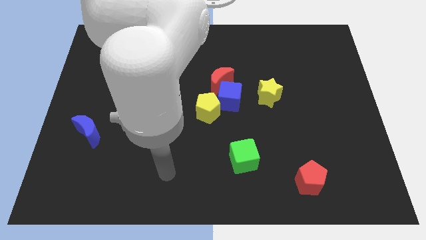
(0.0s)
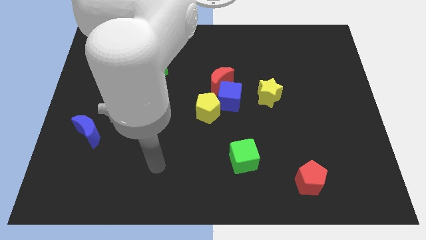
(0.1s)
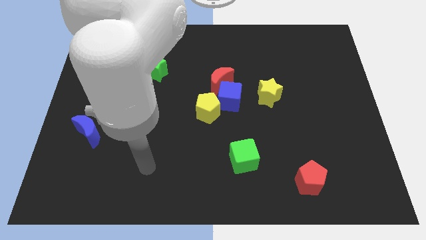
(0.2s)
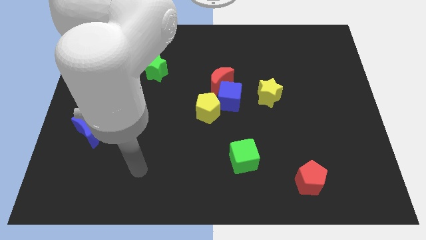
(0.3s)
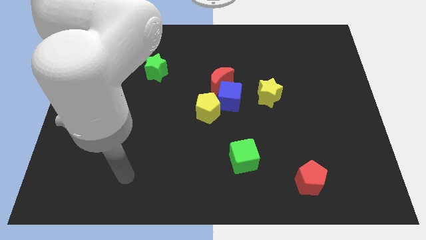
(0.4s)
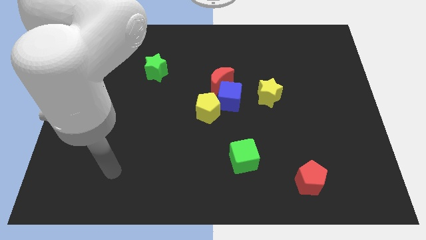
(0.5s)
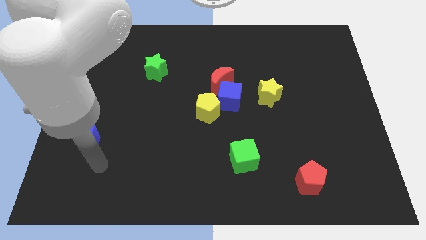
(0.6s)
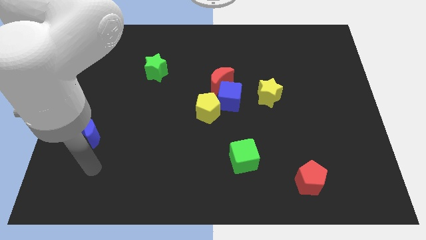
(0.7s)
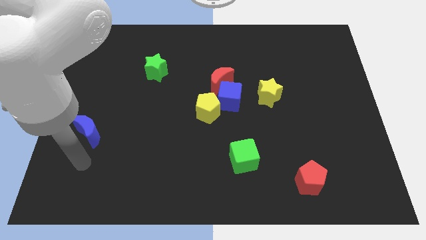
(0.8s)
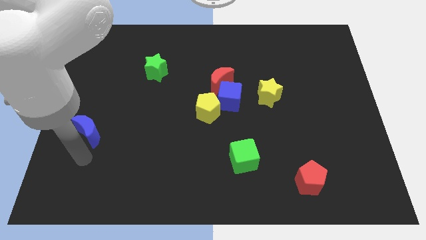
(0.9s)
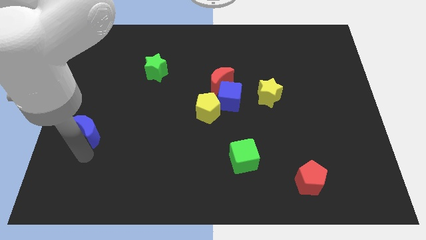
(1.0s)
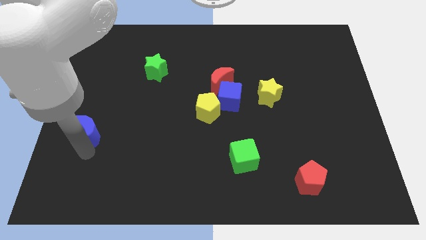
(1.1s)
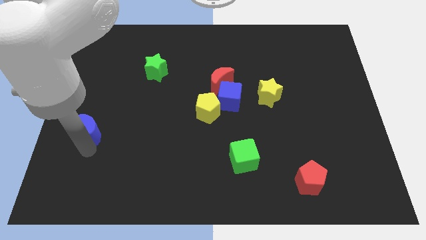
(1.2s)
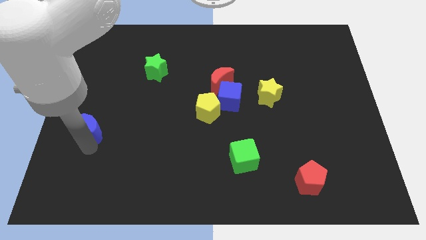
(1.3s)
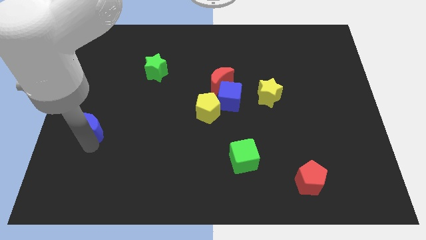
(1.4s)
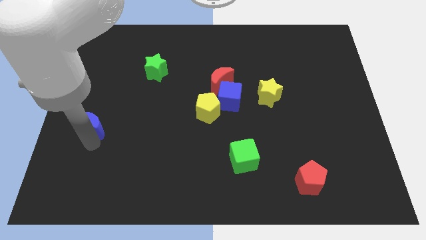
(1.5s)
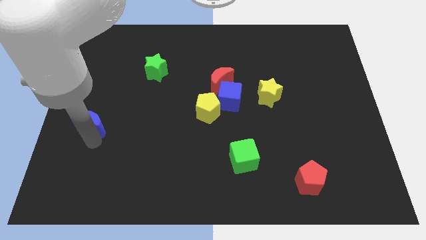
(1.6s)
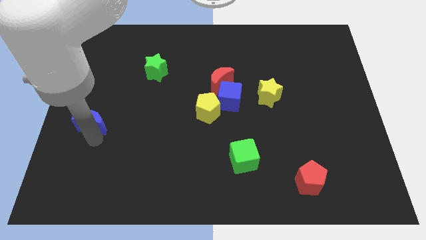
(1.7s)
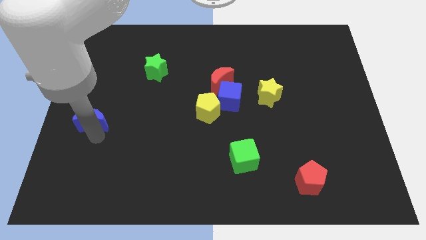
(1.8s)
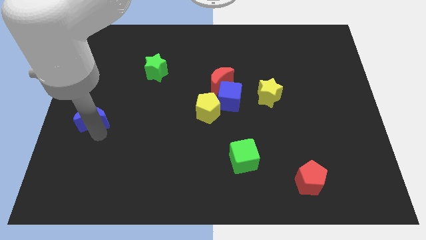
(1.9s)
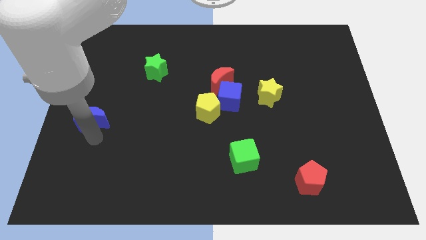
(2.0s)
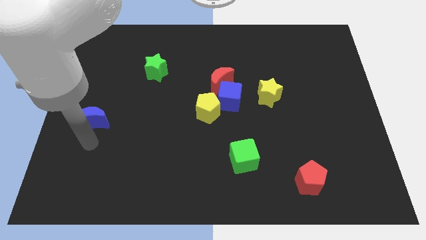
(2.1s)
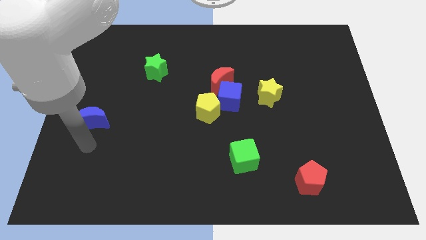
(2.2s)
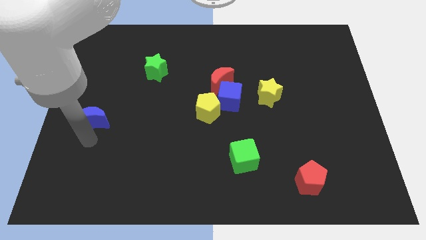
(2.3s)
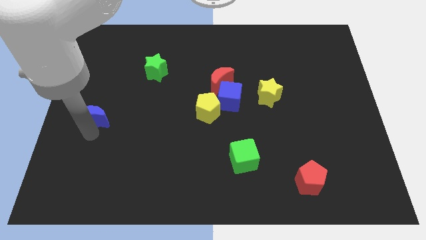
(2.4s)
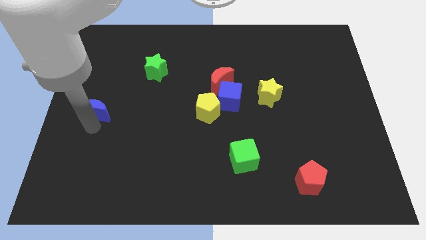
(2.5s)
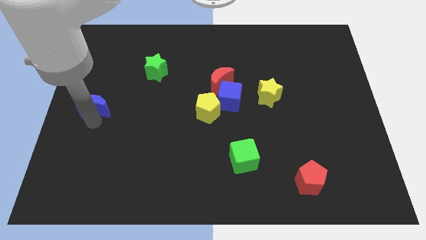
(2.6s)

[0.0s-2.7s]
move the blue moon up a little bit

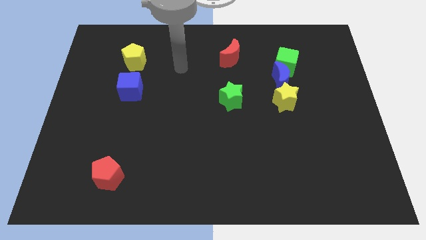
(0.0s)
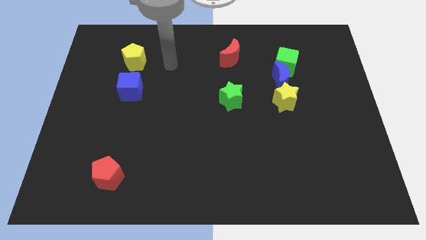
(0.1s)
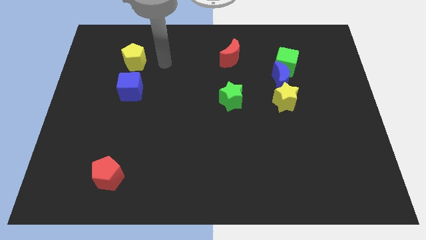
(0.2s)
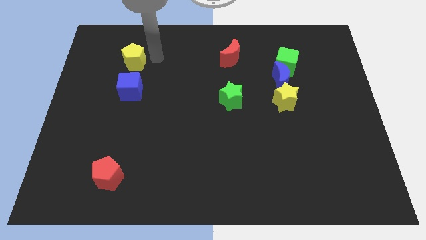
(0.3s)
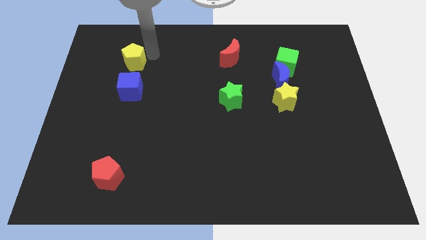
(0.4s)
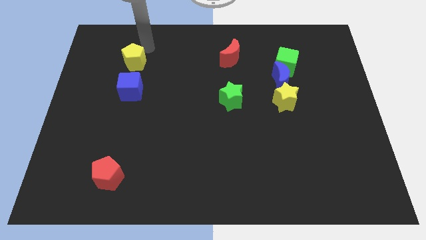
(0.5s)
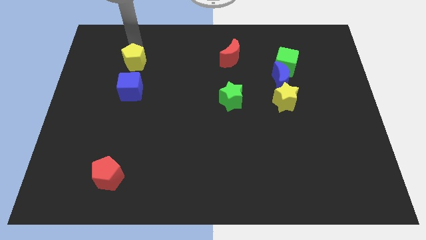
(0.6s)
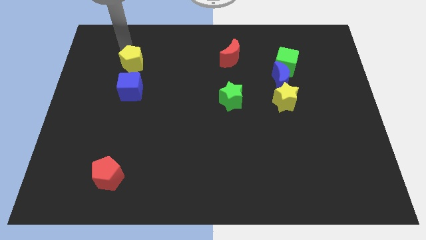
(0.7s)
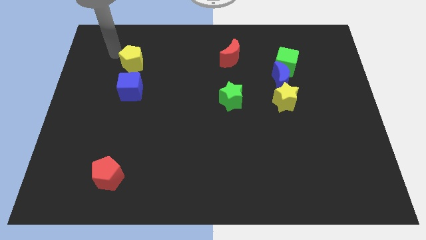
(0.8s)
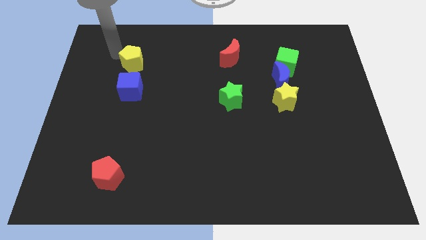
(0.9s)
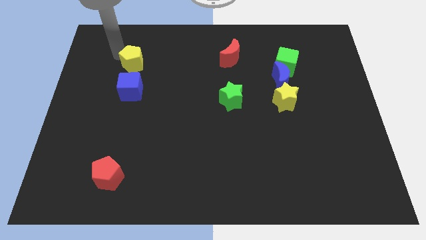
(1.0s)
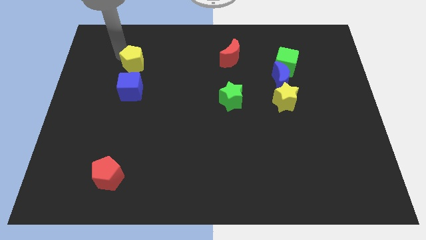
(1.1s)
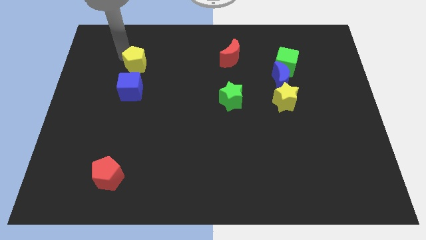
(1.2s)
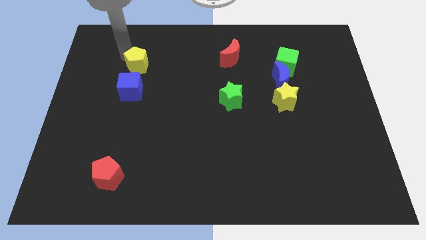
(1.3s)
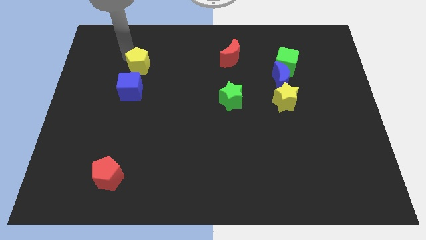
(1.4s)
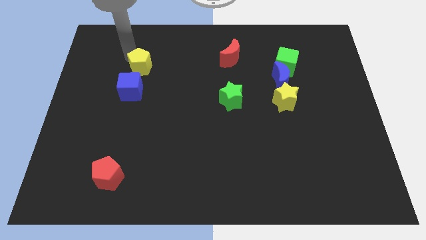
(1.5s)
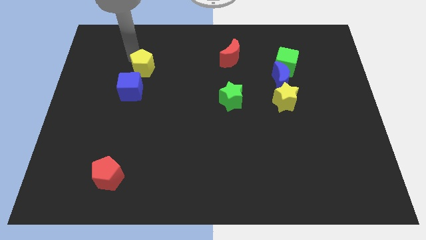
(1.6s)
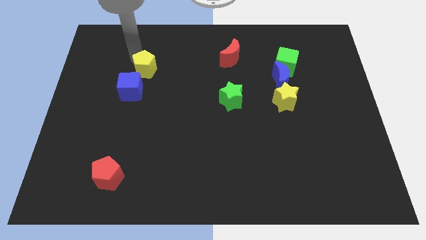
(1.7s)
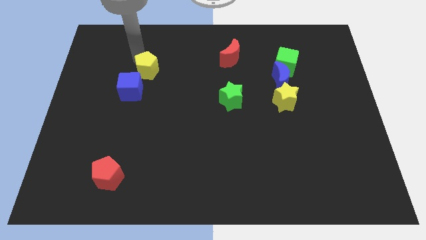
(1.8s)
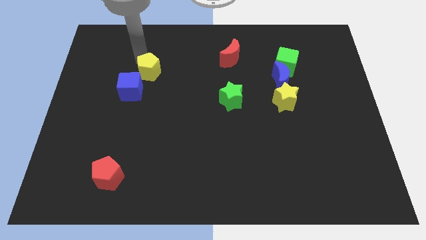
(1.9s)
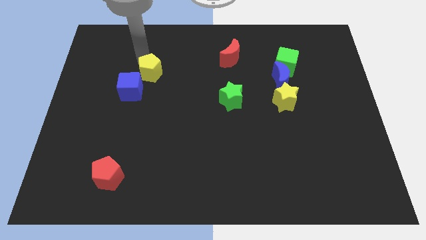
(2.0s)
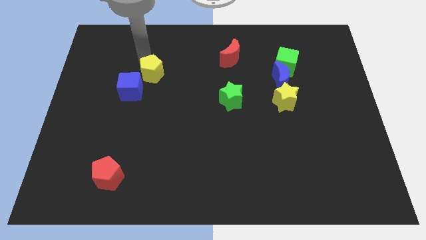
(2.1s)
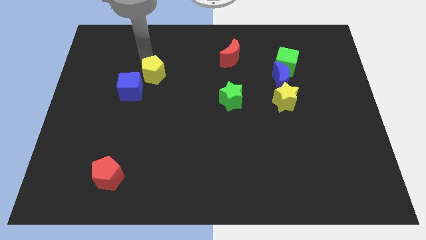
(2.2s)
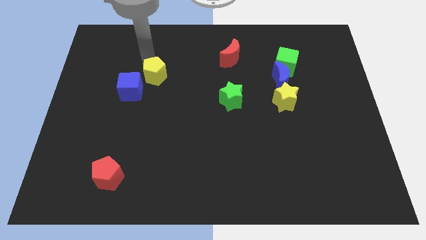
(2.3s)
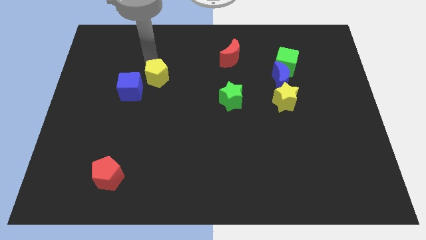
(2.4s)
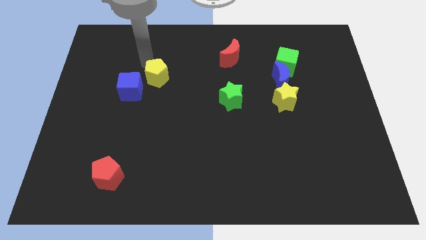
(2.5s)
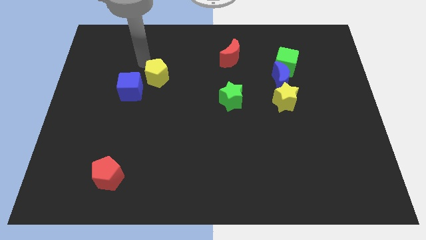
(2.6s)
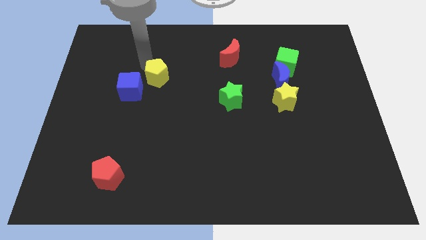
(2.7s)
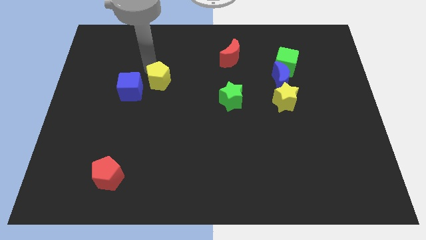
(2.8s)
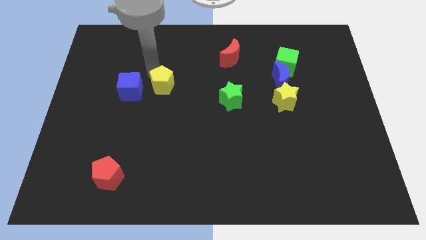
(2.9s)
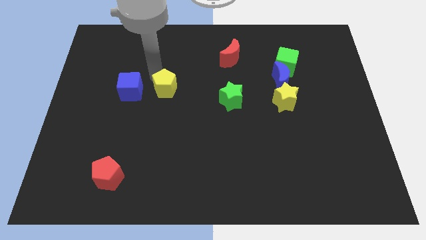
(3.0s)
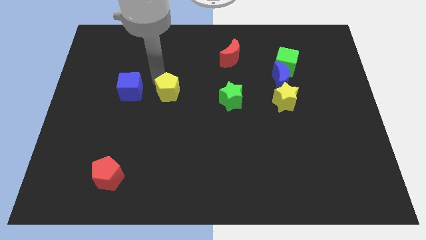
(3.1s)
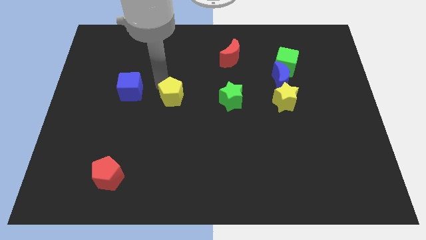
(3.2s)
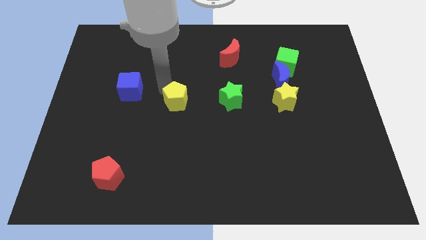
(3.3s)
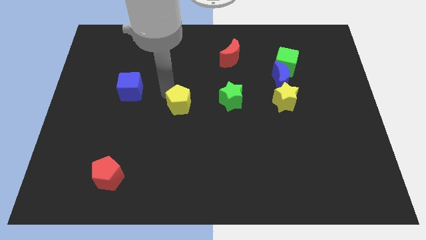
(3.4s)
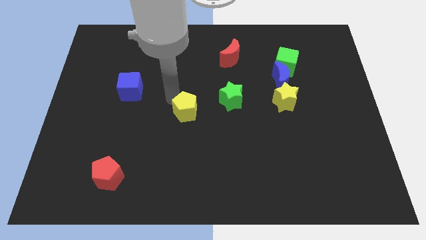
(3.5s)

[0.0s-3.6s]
move the yellow pentagon downwards and then to the right

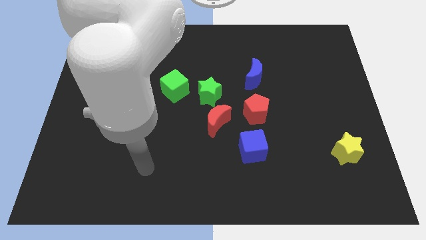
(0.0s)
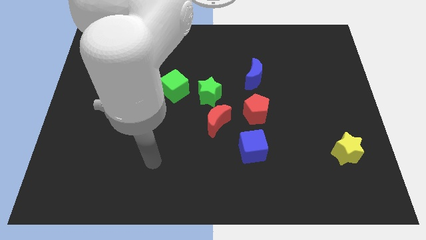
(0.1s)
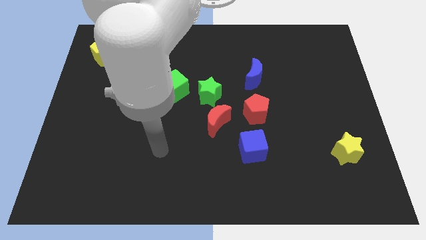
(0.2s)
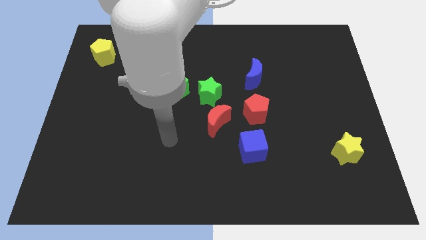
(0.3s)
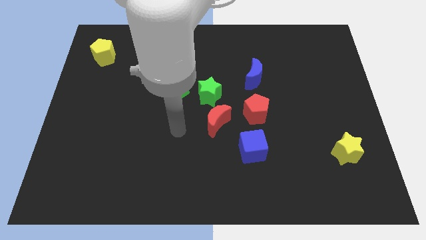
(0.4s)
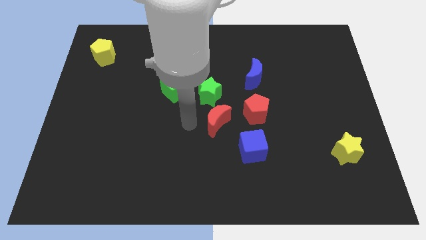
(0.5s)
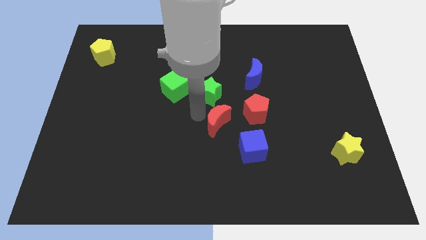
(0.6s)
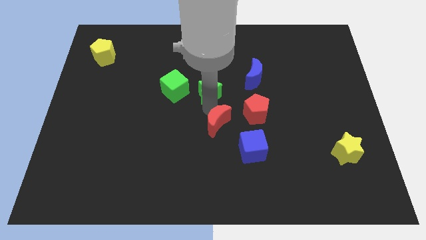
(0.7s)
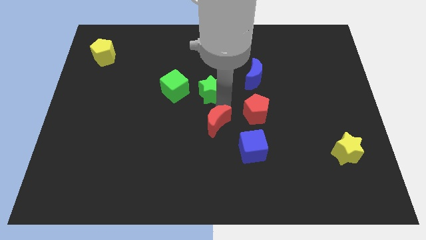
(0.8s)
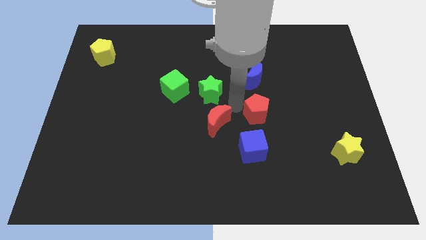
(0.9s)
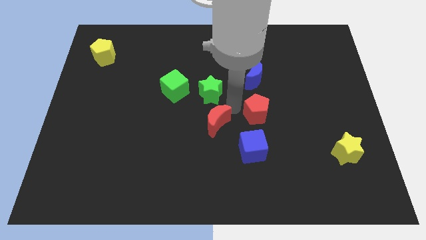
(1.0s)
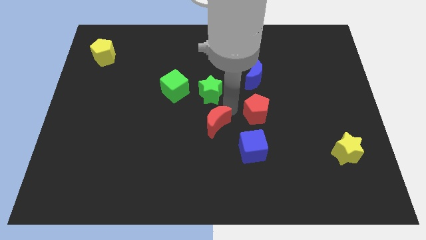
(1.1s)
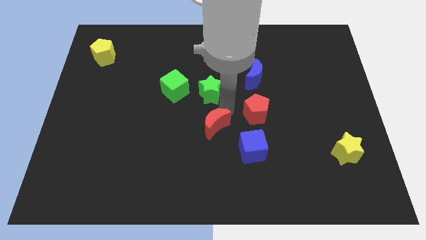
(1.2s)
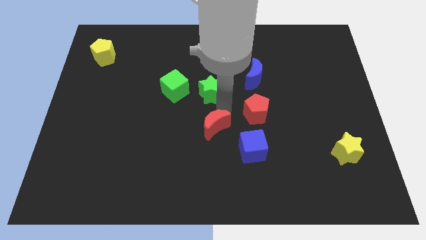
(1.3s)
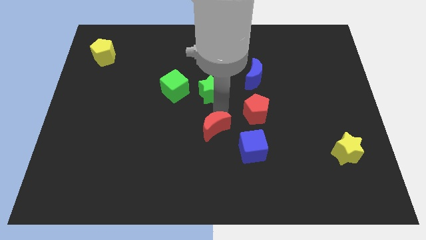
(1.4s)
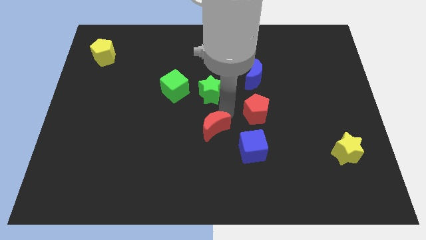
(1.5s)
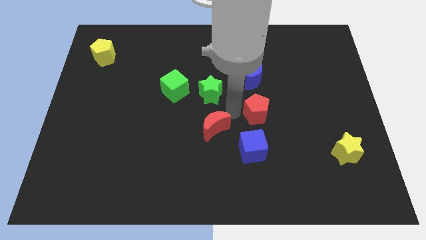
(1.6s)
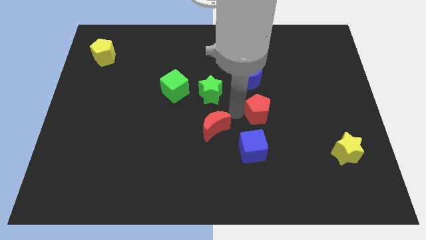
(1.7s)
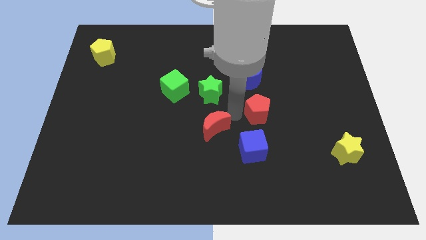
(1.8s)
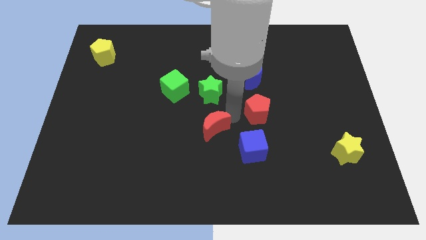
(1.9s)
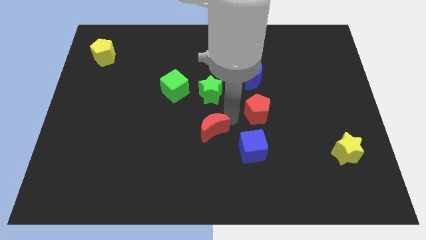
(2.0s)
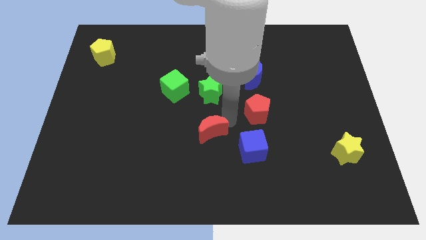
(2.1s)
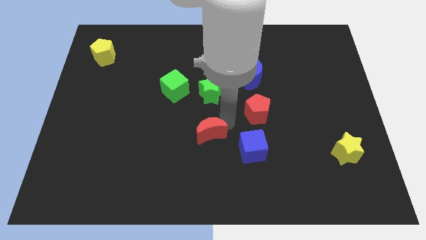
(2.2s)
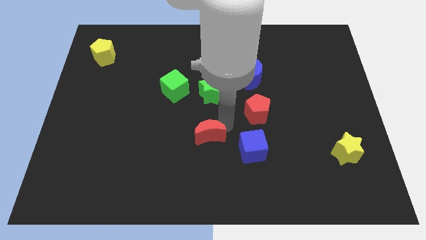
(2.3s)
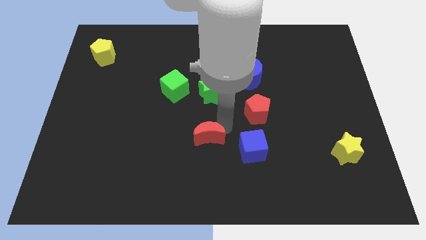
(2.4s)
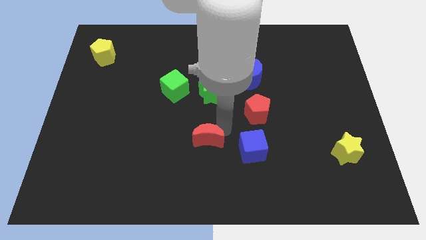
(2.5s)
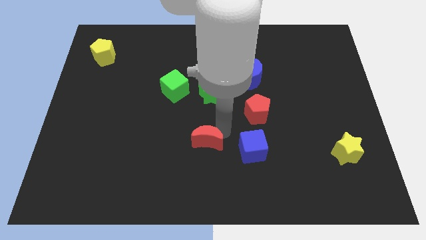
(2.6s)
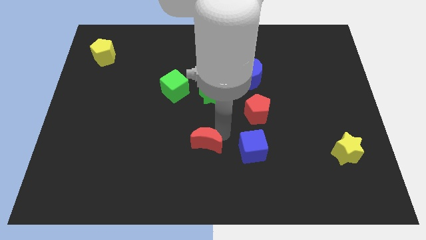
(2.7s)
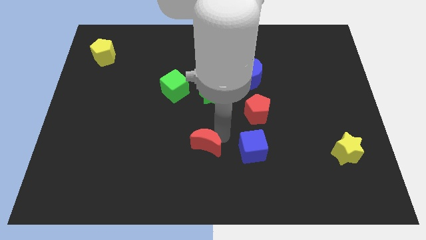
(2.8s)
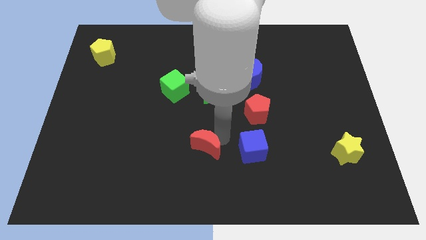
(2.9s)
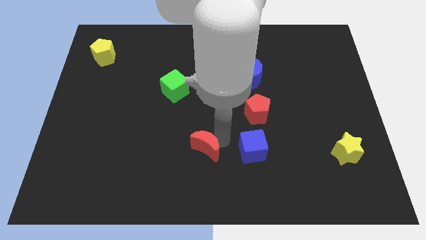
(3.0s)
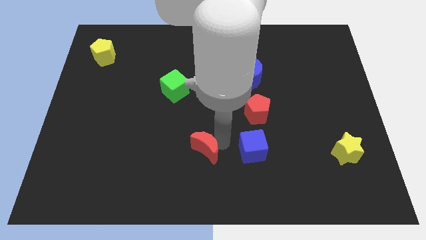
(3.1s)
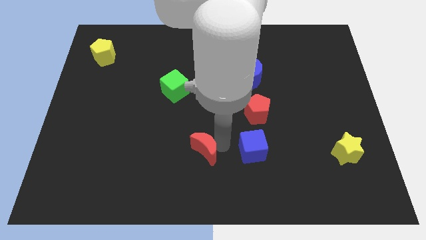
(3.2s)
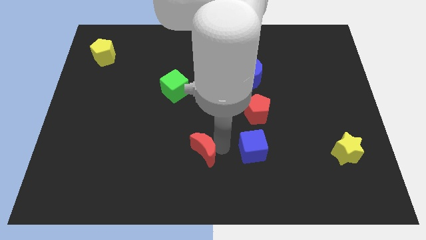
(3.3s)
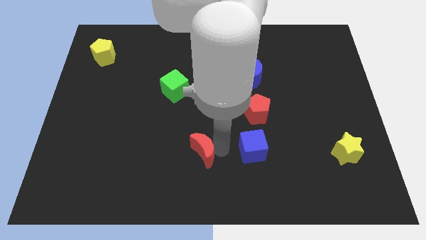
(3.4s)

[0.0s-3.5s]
move the red moon downwards and then left a little
